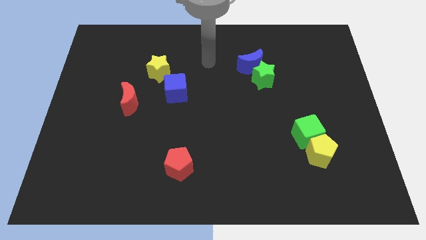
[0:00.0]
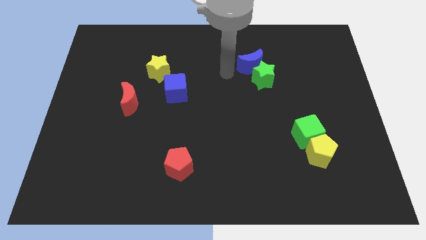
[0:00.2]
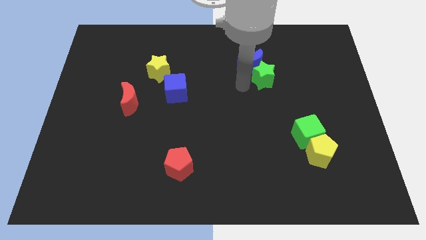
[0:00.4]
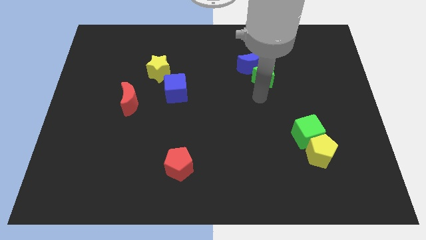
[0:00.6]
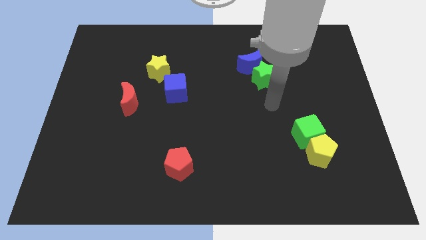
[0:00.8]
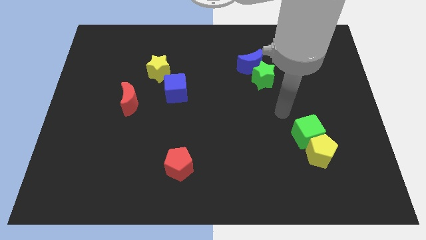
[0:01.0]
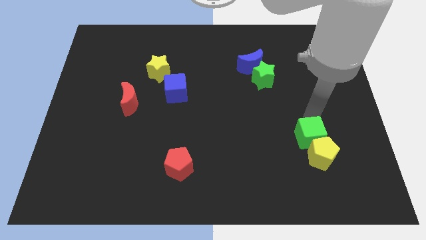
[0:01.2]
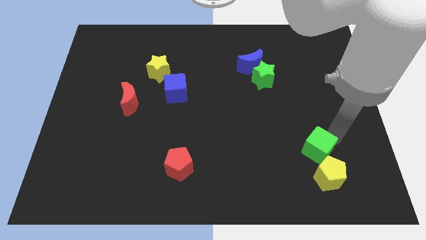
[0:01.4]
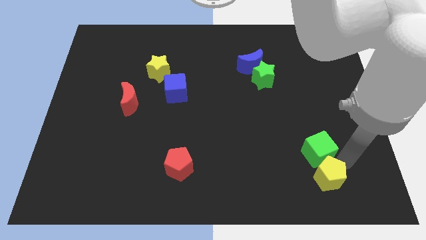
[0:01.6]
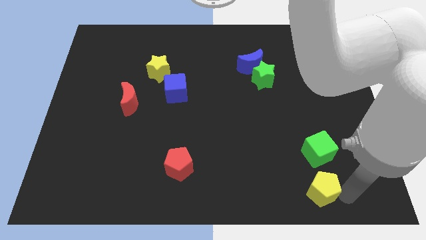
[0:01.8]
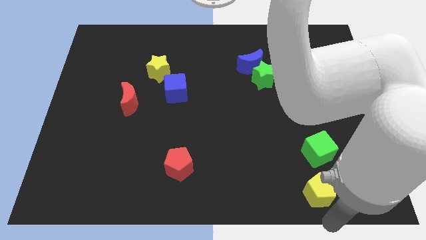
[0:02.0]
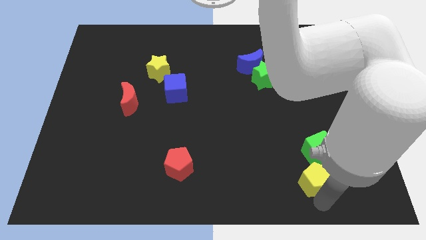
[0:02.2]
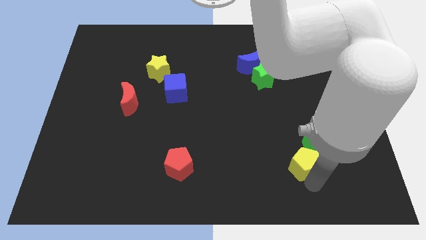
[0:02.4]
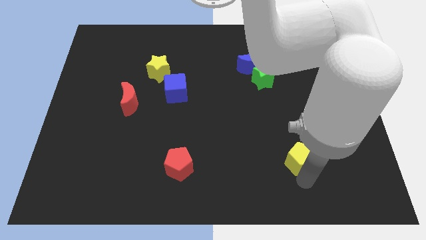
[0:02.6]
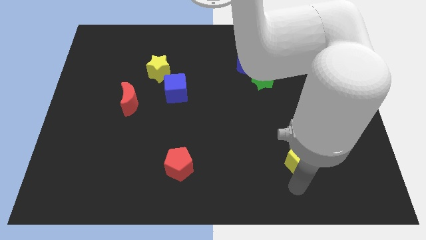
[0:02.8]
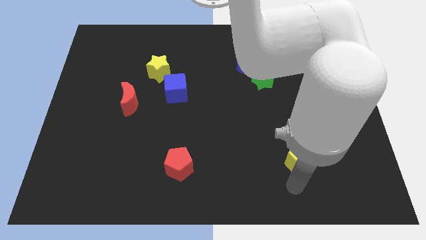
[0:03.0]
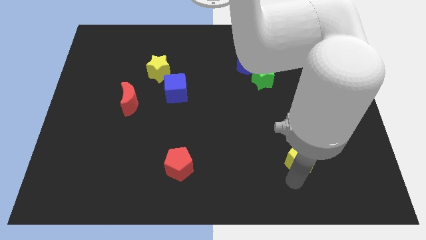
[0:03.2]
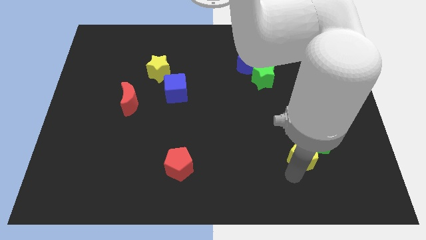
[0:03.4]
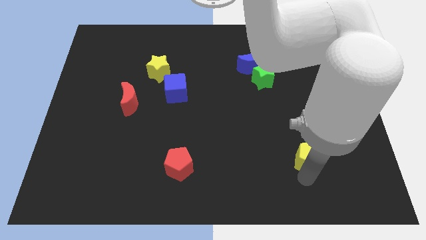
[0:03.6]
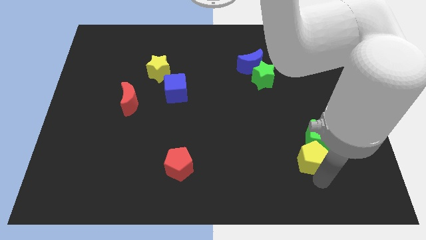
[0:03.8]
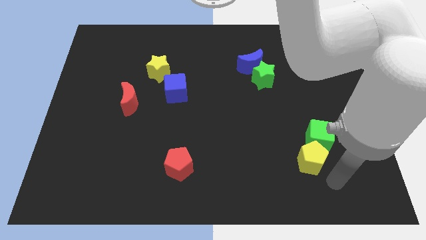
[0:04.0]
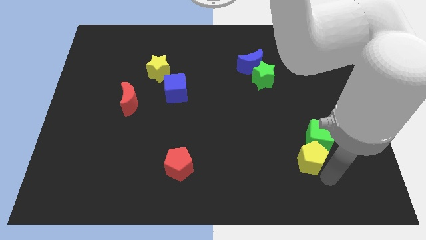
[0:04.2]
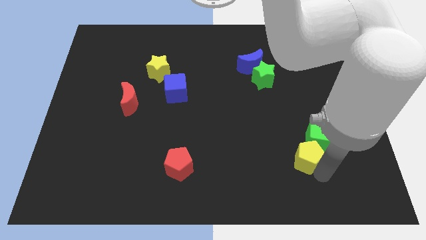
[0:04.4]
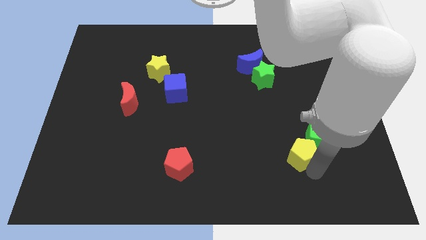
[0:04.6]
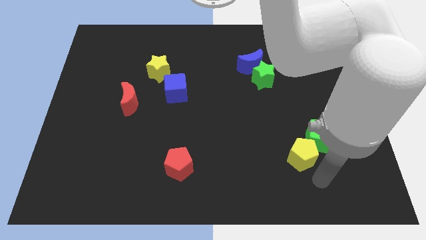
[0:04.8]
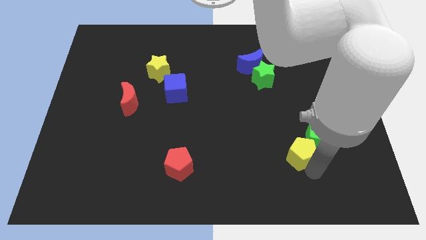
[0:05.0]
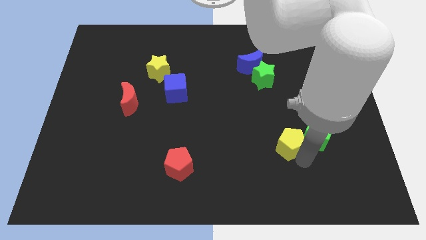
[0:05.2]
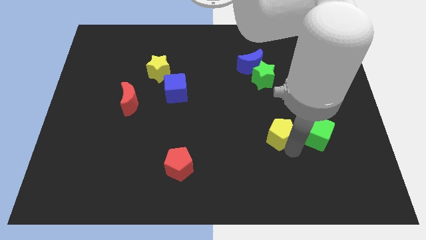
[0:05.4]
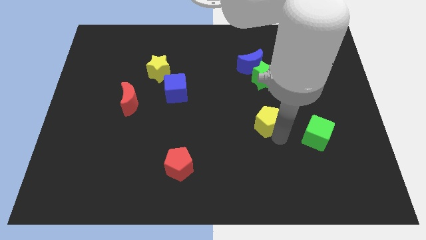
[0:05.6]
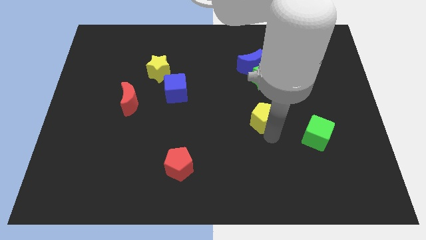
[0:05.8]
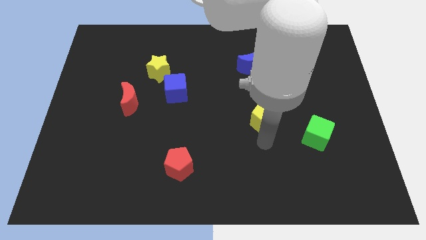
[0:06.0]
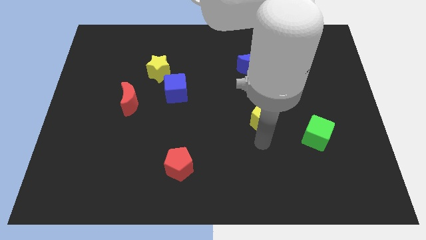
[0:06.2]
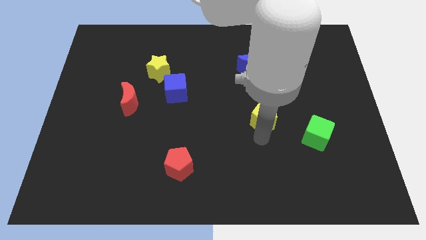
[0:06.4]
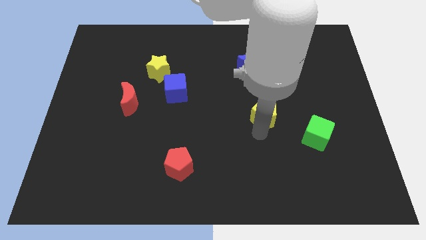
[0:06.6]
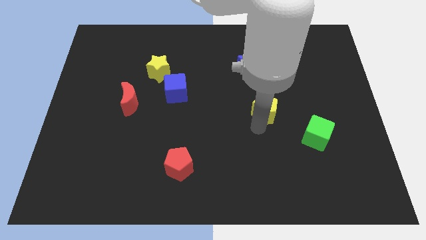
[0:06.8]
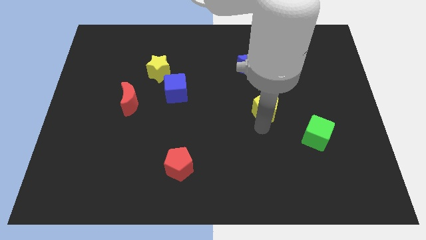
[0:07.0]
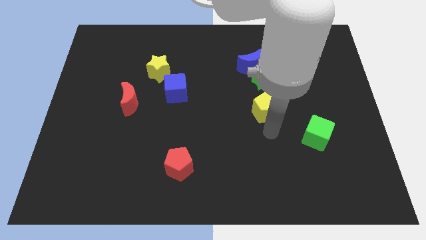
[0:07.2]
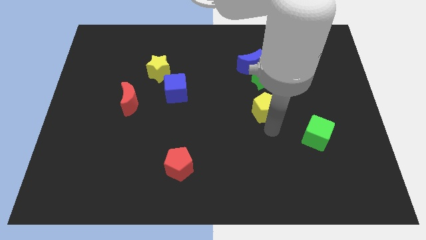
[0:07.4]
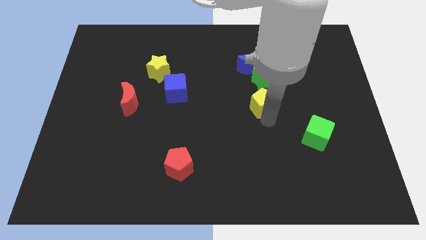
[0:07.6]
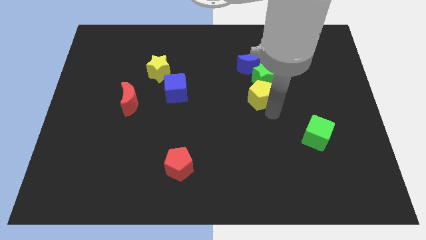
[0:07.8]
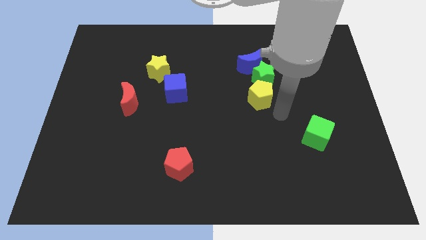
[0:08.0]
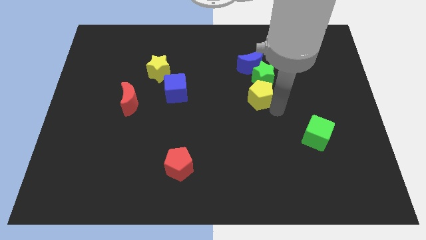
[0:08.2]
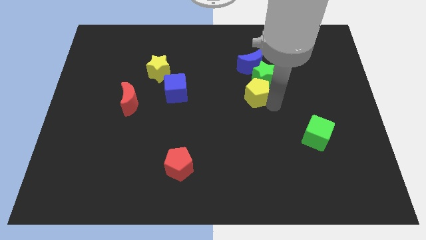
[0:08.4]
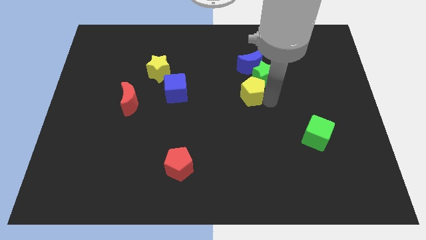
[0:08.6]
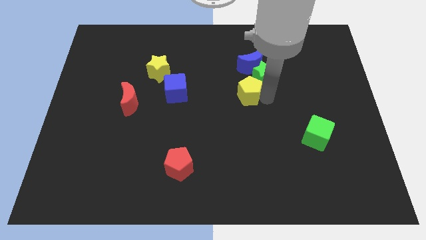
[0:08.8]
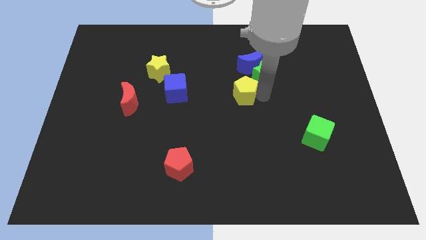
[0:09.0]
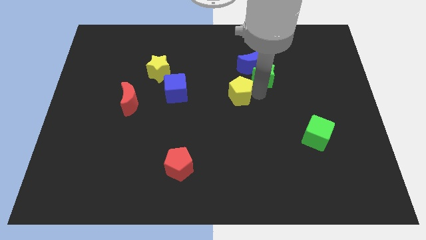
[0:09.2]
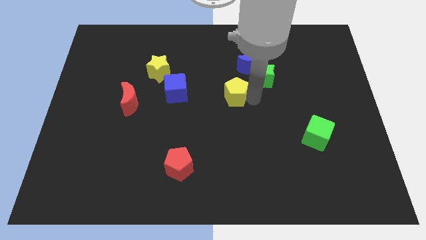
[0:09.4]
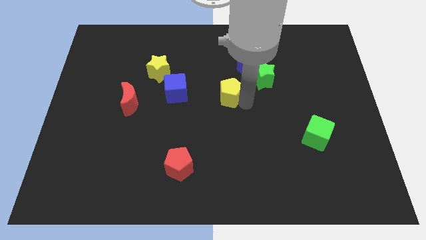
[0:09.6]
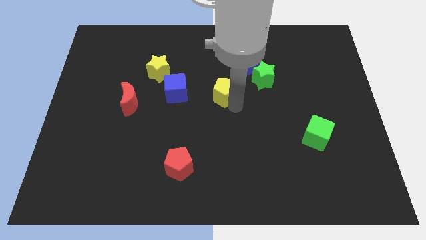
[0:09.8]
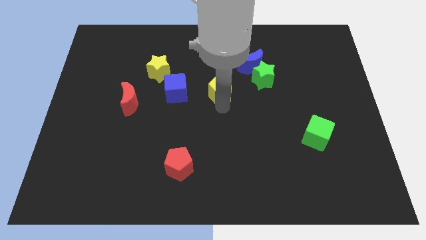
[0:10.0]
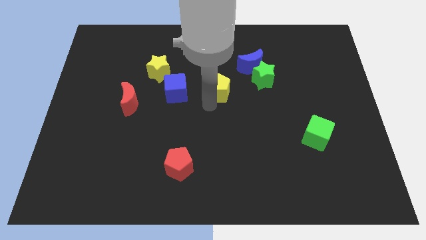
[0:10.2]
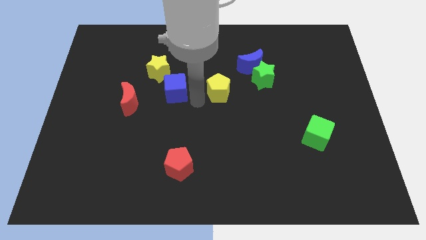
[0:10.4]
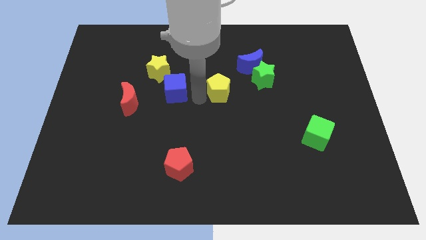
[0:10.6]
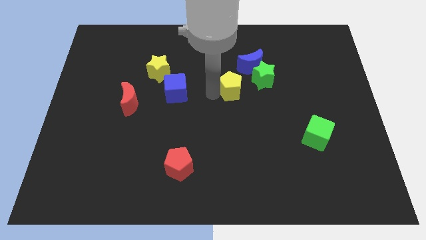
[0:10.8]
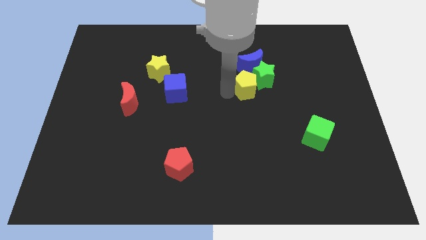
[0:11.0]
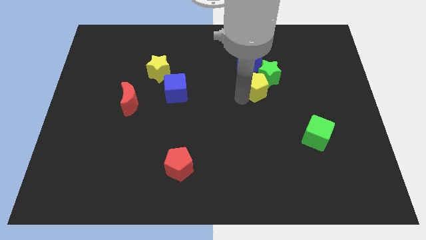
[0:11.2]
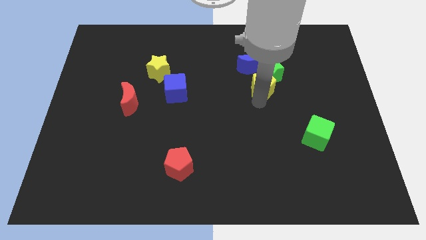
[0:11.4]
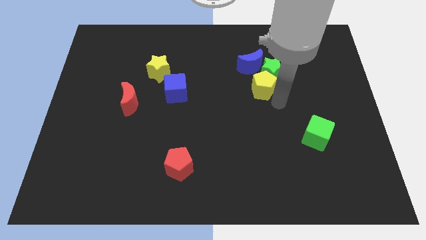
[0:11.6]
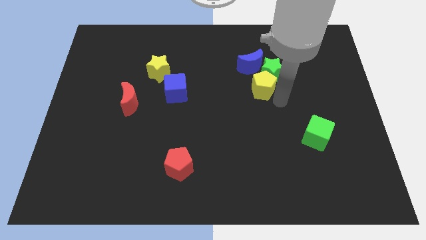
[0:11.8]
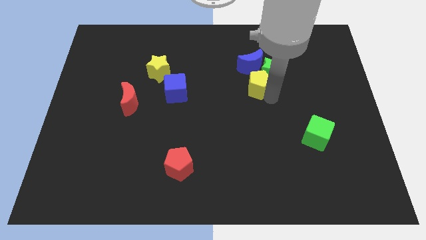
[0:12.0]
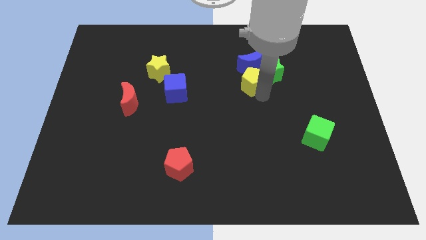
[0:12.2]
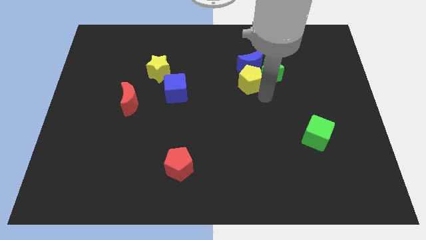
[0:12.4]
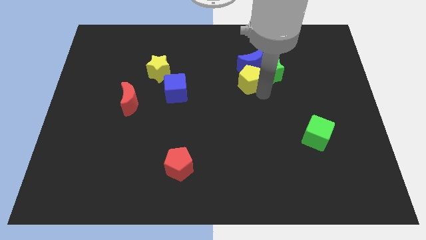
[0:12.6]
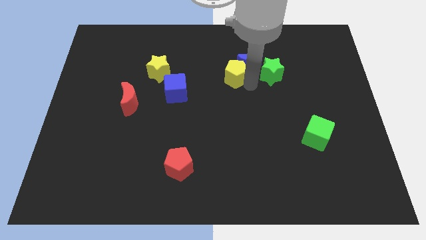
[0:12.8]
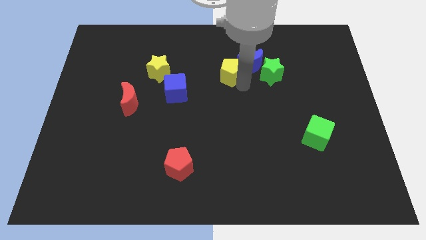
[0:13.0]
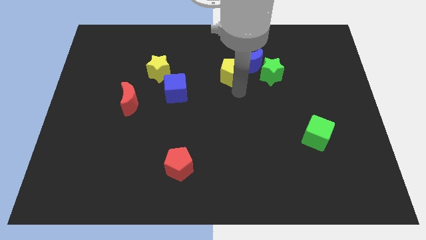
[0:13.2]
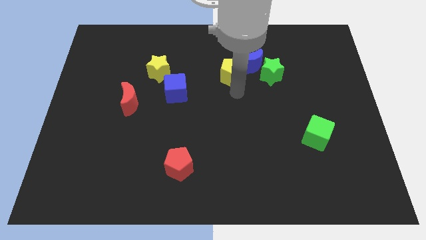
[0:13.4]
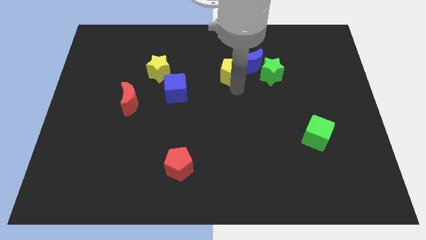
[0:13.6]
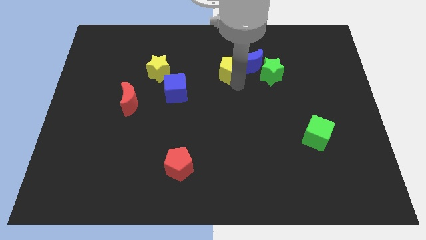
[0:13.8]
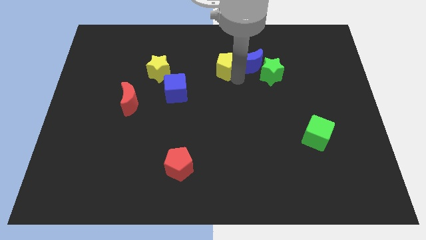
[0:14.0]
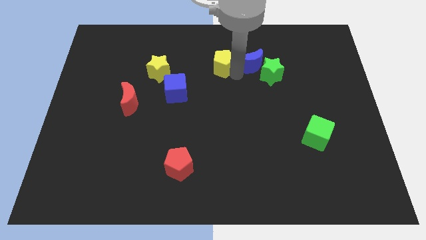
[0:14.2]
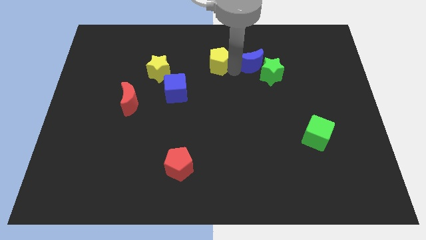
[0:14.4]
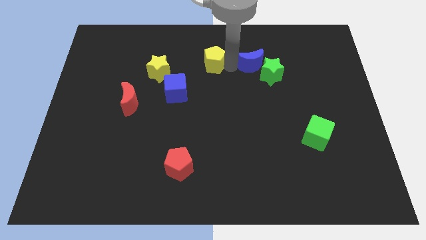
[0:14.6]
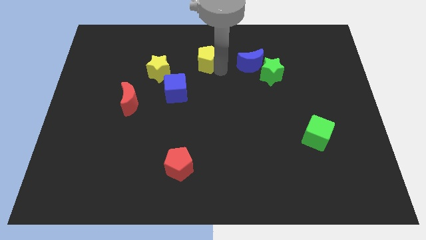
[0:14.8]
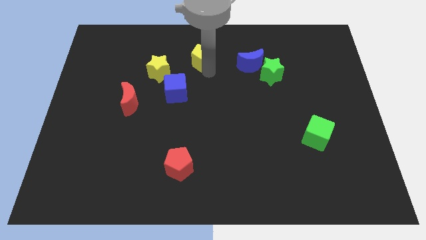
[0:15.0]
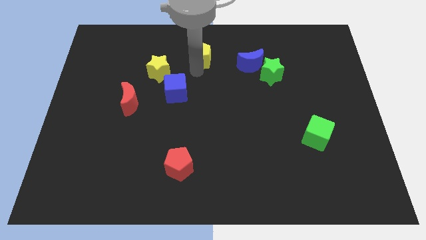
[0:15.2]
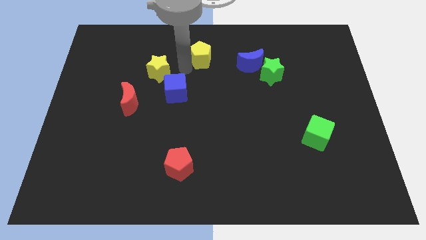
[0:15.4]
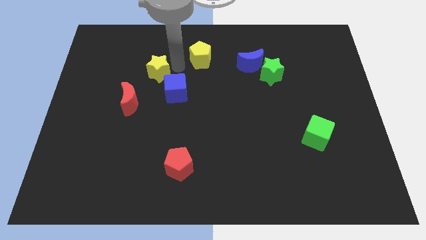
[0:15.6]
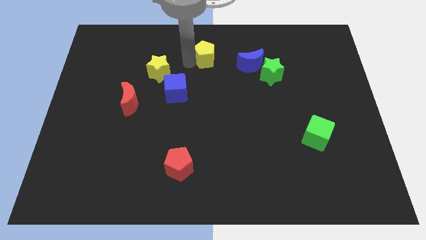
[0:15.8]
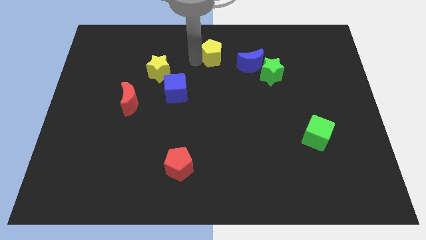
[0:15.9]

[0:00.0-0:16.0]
put the yellow pentagon to the towards your base
